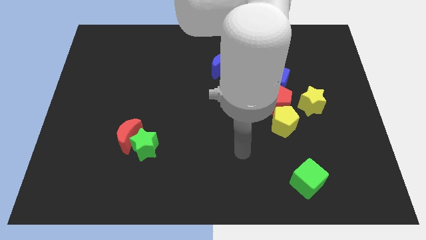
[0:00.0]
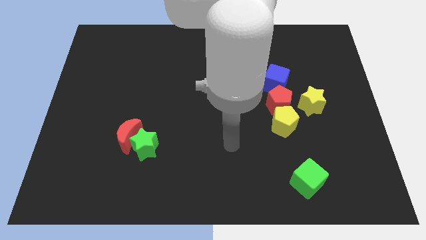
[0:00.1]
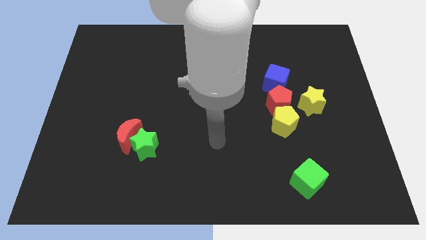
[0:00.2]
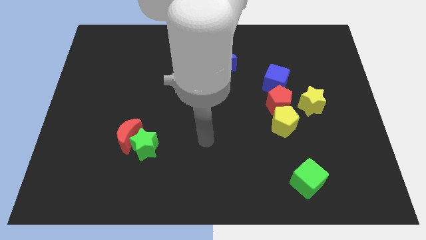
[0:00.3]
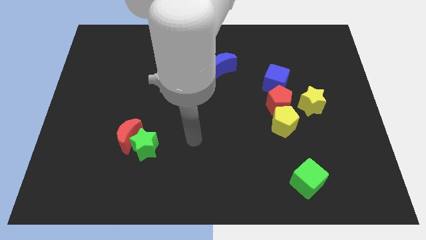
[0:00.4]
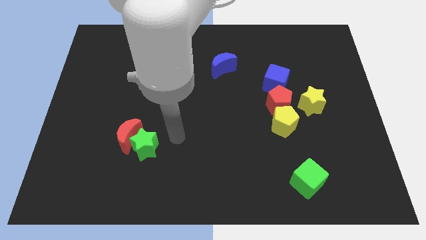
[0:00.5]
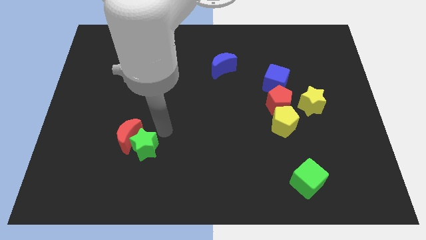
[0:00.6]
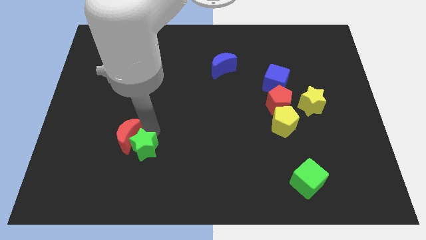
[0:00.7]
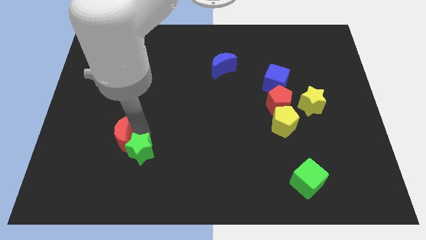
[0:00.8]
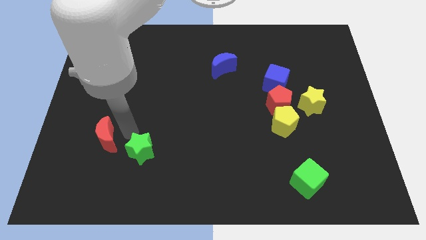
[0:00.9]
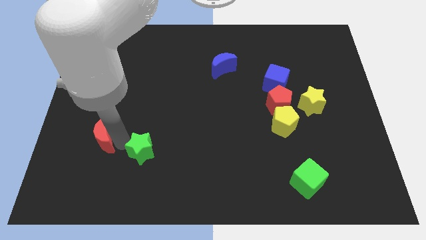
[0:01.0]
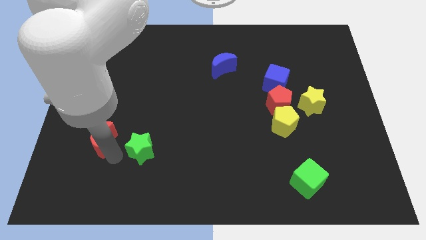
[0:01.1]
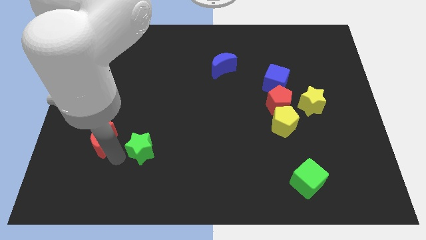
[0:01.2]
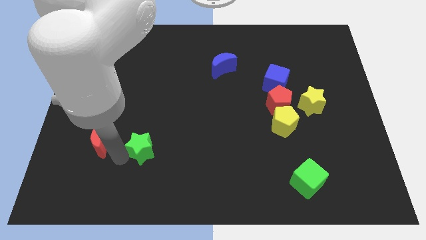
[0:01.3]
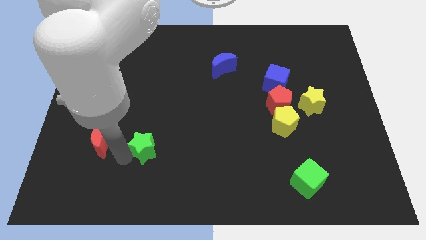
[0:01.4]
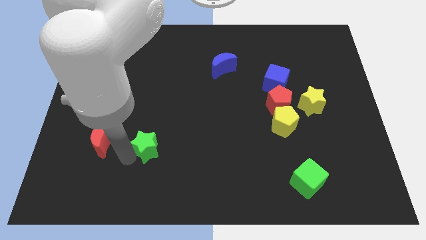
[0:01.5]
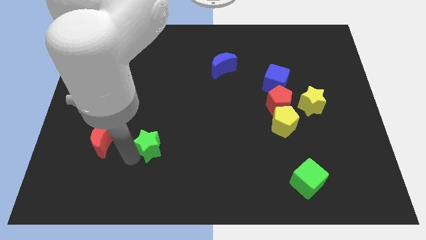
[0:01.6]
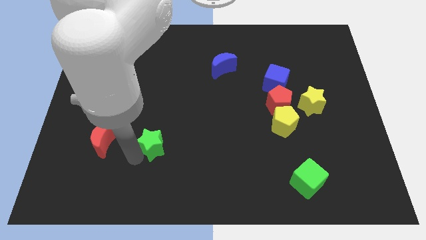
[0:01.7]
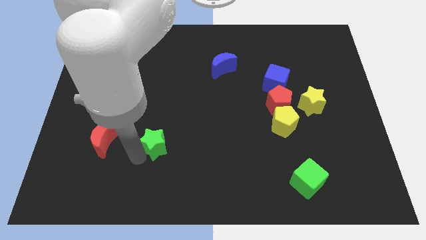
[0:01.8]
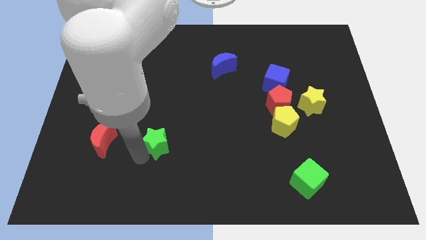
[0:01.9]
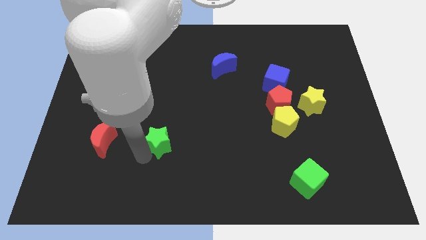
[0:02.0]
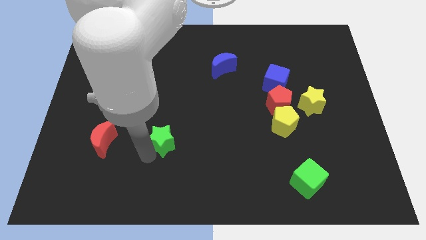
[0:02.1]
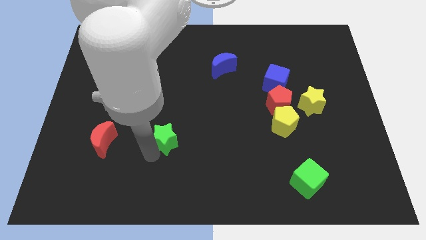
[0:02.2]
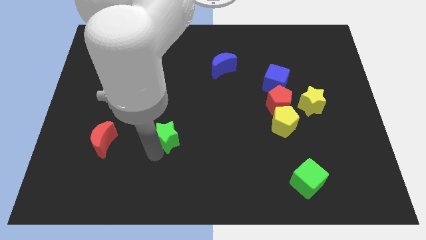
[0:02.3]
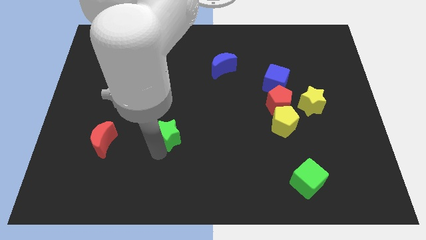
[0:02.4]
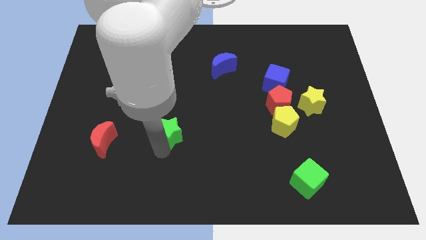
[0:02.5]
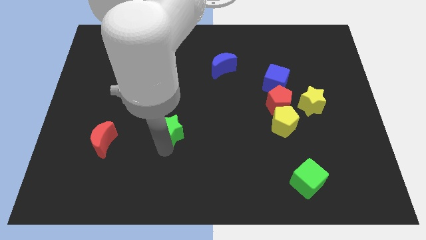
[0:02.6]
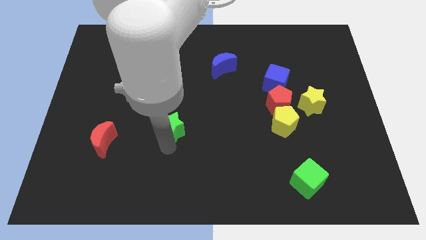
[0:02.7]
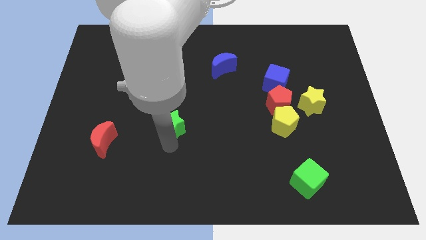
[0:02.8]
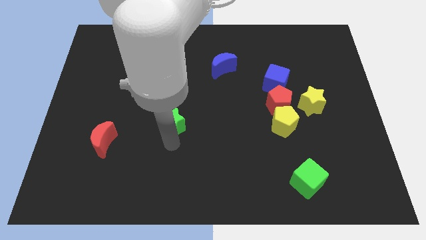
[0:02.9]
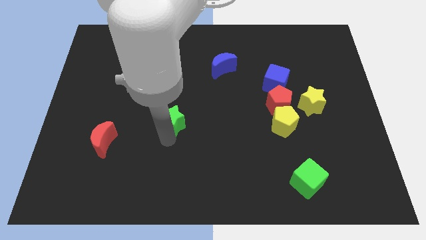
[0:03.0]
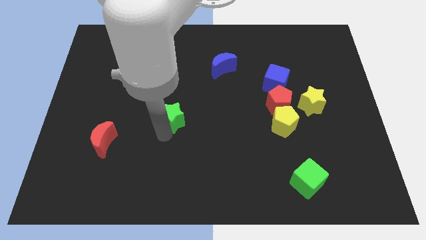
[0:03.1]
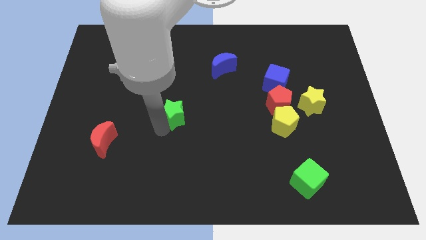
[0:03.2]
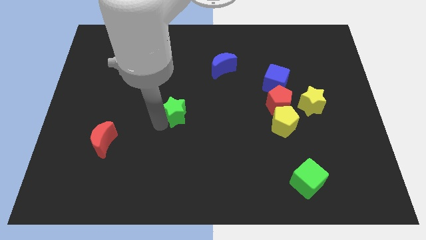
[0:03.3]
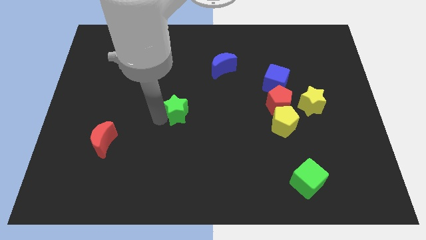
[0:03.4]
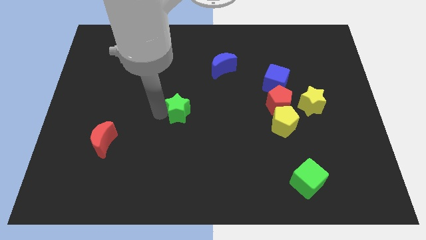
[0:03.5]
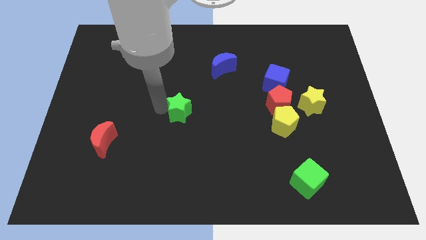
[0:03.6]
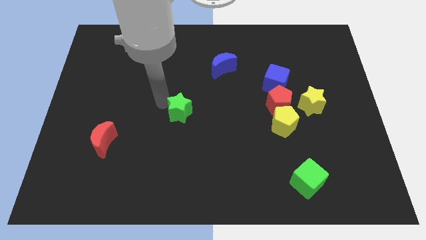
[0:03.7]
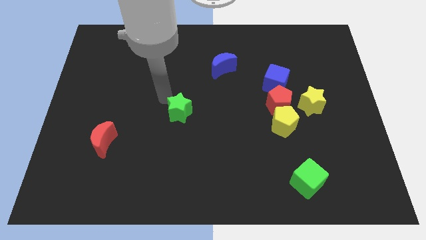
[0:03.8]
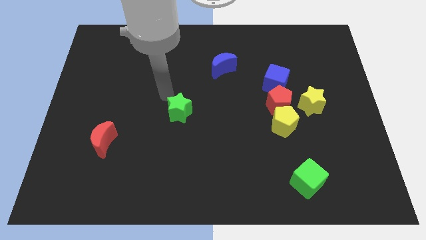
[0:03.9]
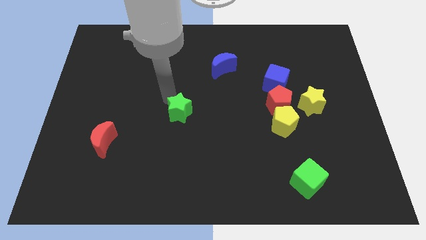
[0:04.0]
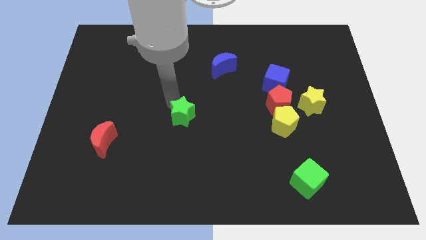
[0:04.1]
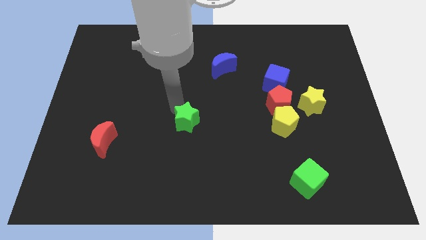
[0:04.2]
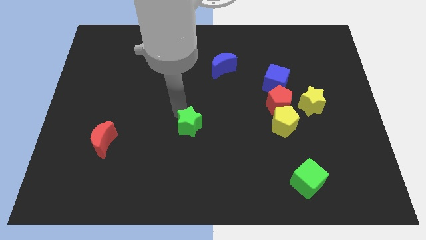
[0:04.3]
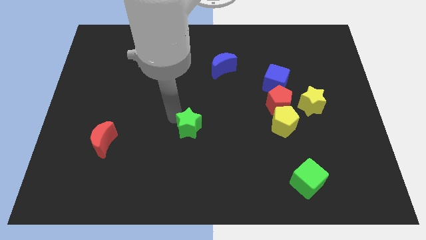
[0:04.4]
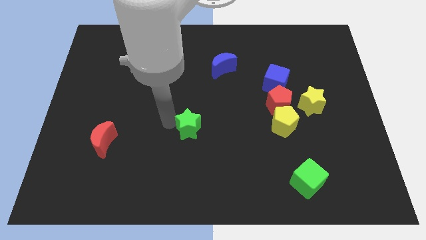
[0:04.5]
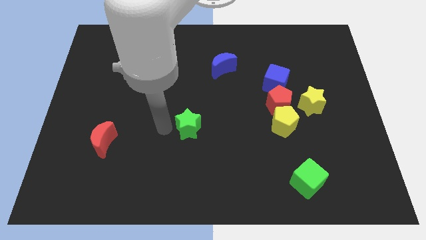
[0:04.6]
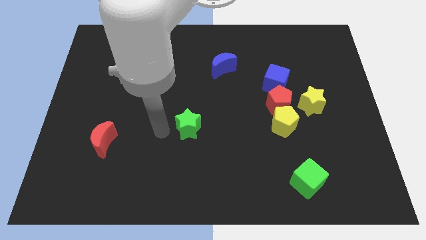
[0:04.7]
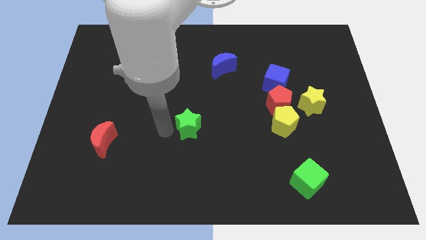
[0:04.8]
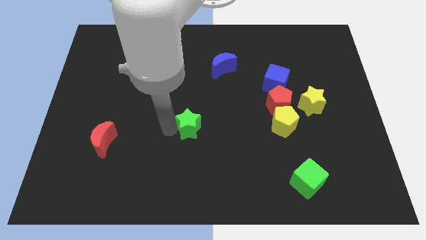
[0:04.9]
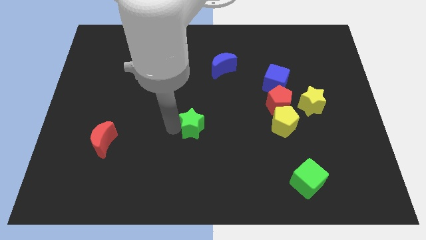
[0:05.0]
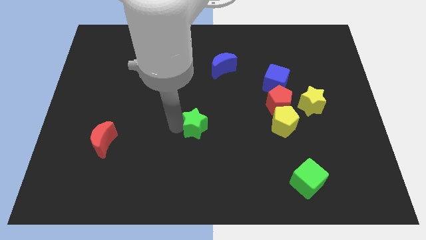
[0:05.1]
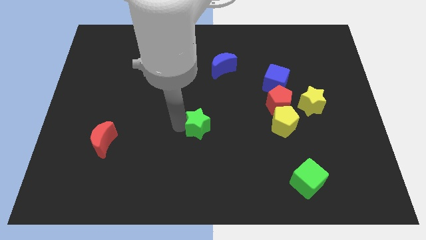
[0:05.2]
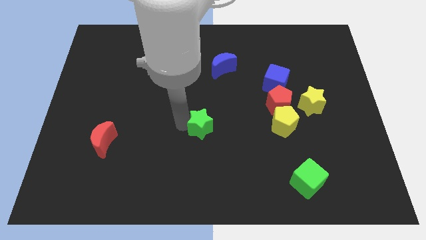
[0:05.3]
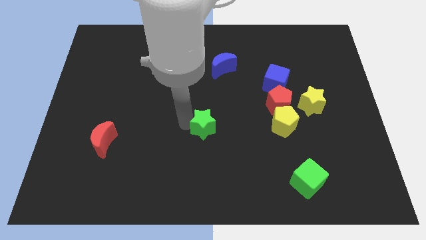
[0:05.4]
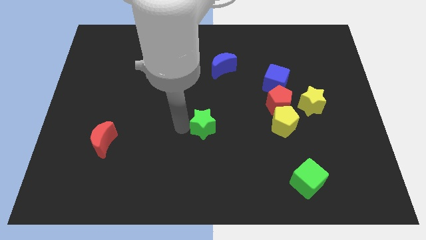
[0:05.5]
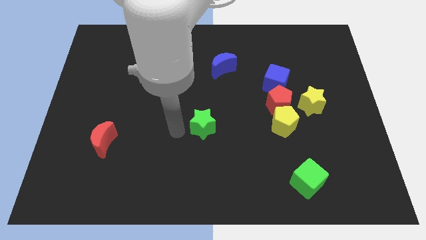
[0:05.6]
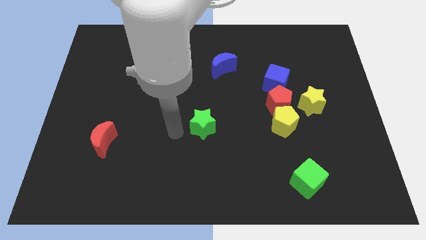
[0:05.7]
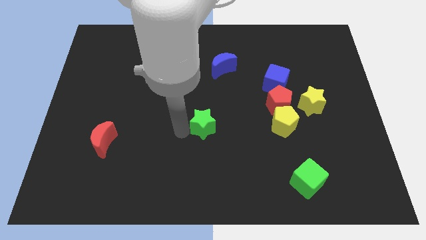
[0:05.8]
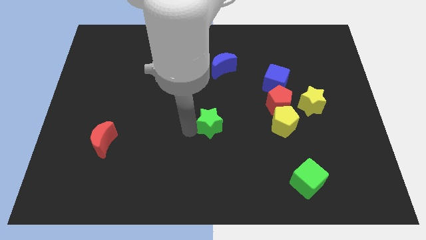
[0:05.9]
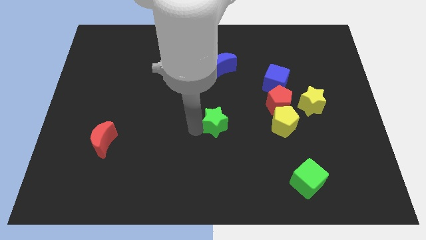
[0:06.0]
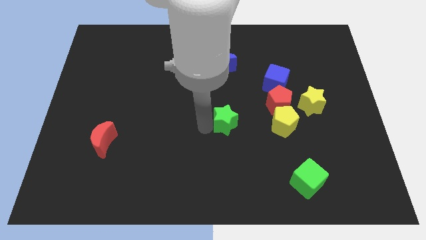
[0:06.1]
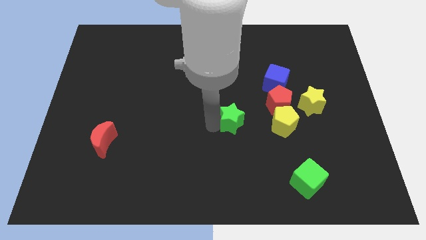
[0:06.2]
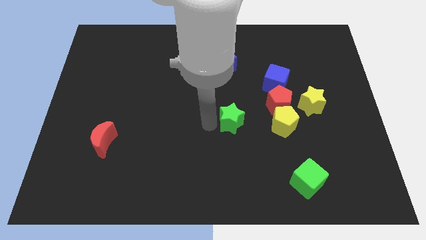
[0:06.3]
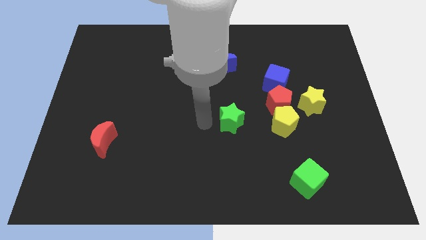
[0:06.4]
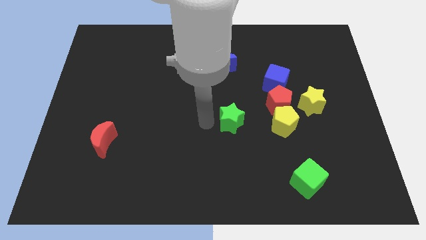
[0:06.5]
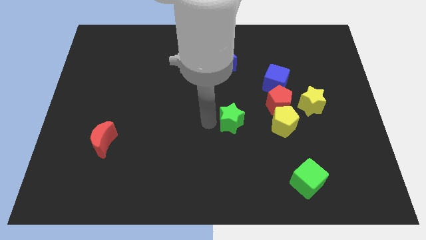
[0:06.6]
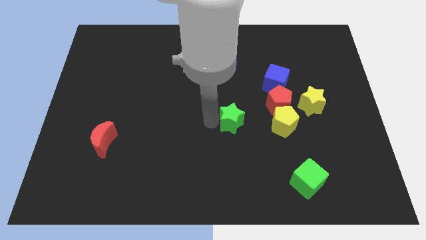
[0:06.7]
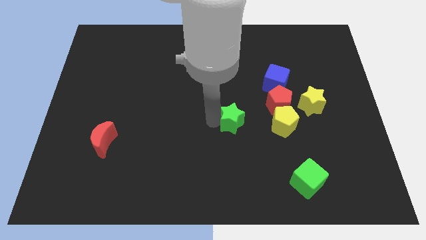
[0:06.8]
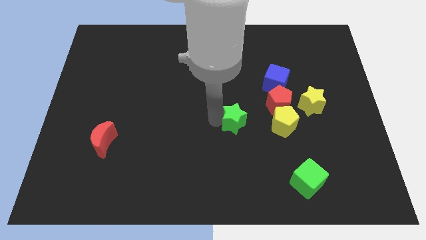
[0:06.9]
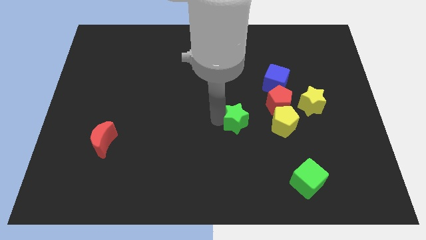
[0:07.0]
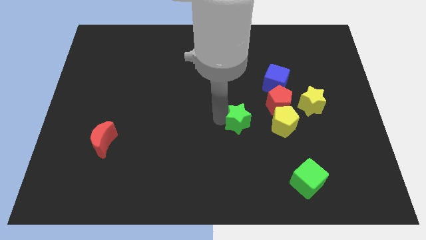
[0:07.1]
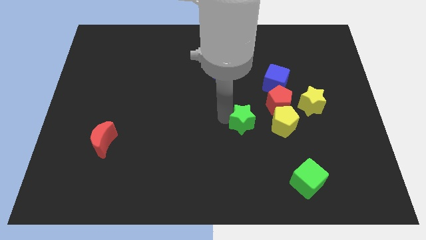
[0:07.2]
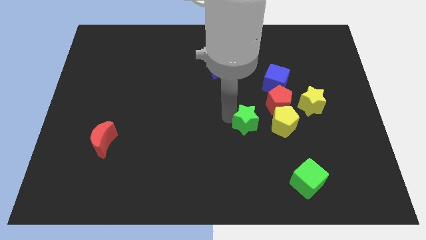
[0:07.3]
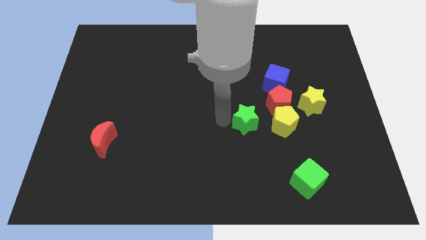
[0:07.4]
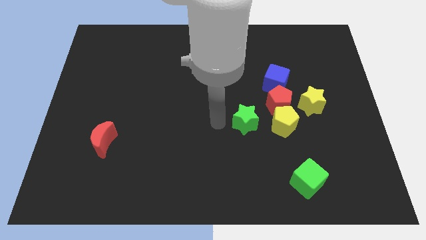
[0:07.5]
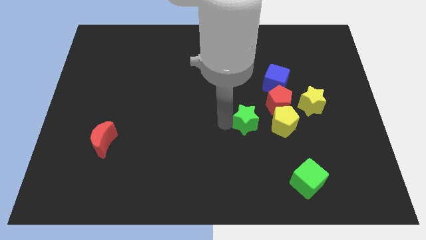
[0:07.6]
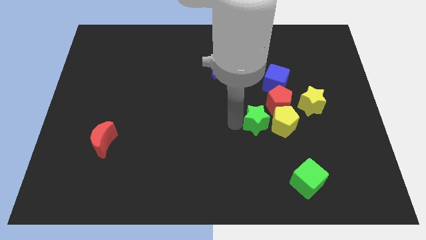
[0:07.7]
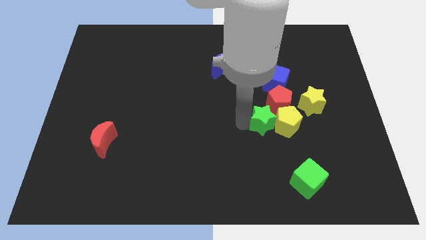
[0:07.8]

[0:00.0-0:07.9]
put the green star next to the yellow pentagon

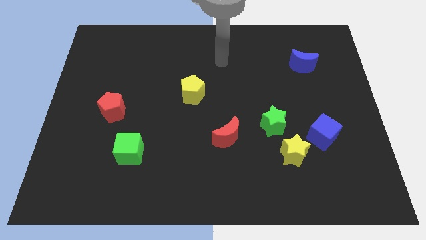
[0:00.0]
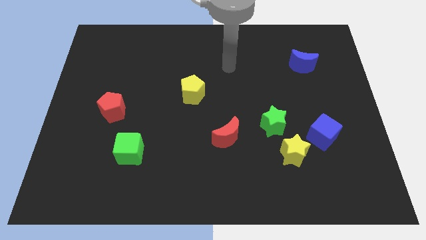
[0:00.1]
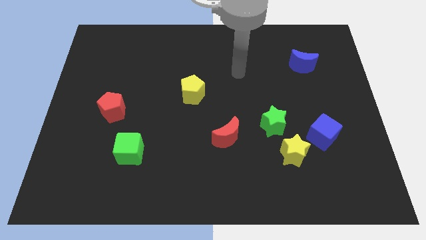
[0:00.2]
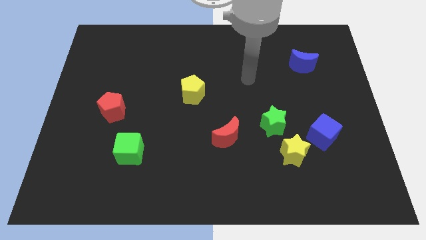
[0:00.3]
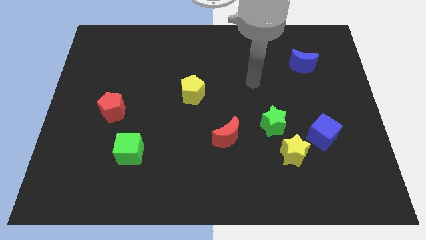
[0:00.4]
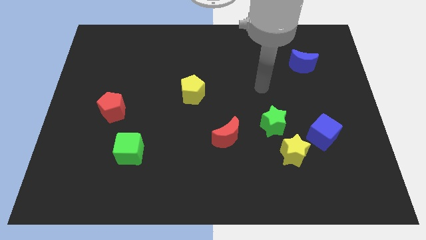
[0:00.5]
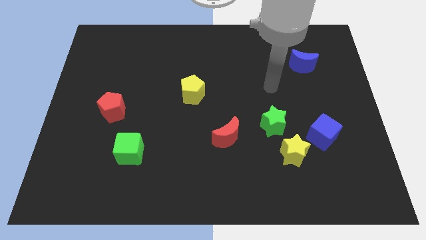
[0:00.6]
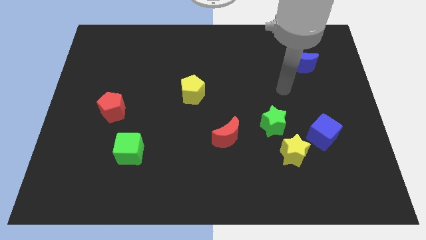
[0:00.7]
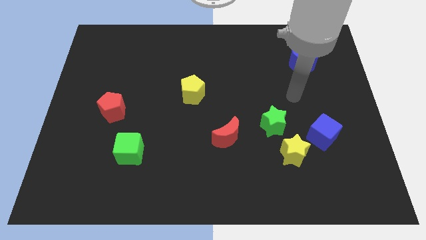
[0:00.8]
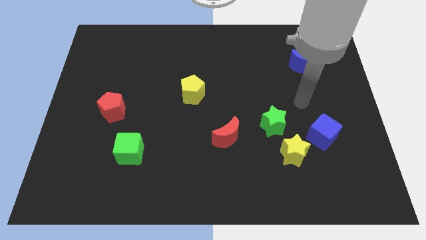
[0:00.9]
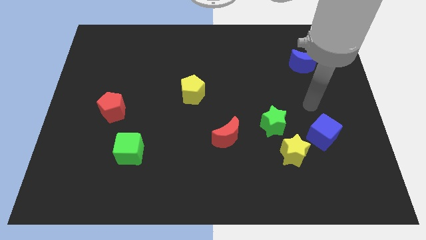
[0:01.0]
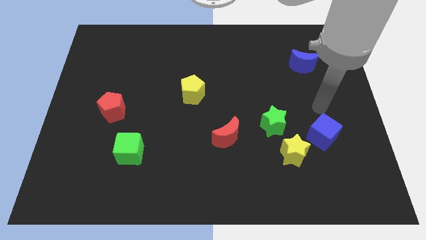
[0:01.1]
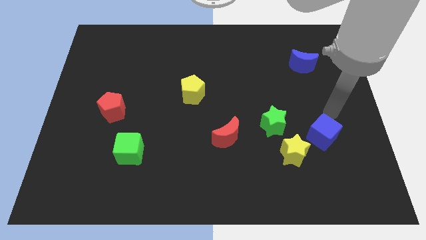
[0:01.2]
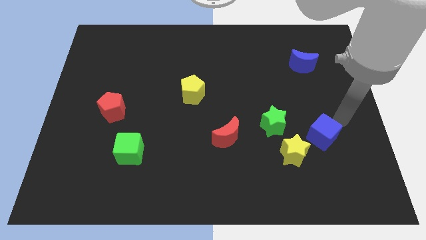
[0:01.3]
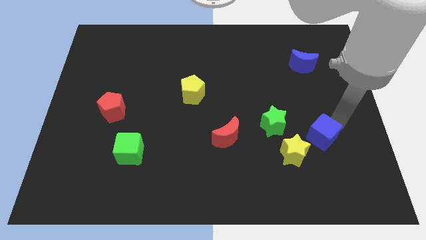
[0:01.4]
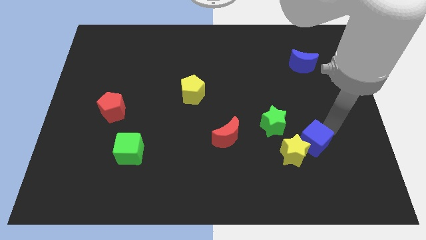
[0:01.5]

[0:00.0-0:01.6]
put the blue cube to the yellow star
